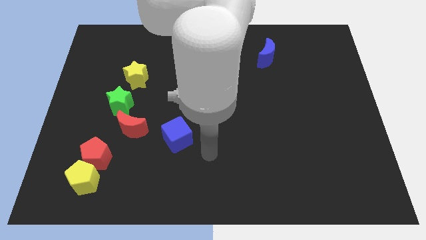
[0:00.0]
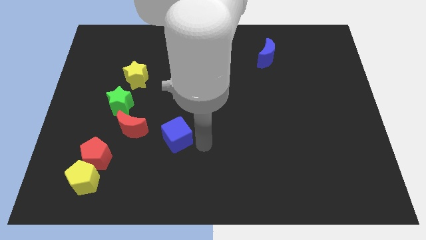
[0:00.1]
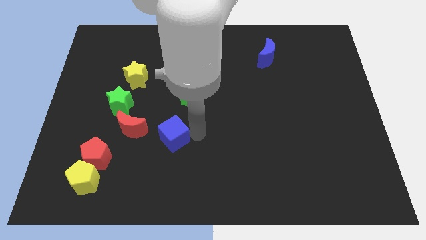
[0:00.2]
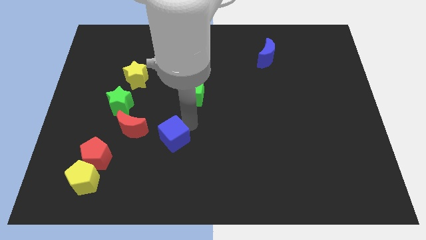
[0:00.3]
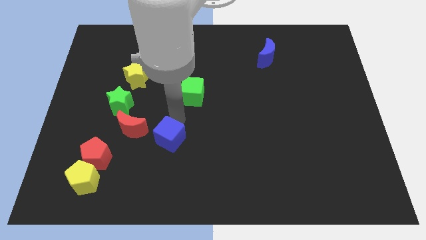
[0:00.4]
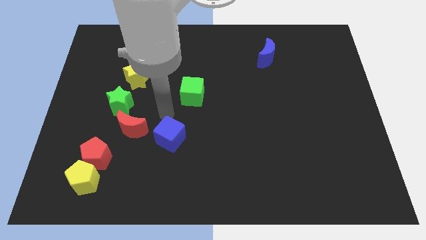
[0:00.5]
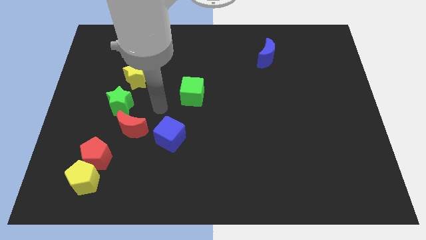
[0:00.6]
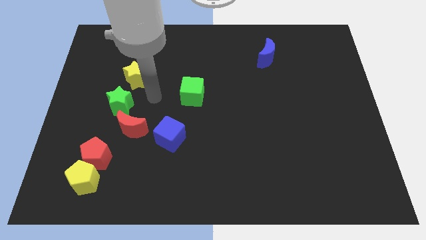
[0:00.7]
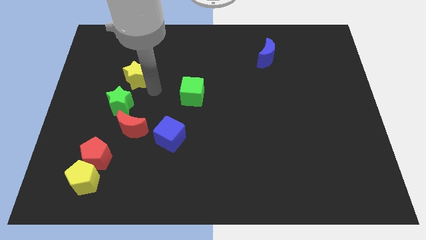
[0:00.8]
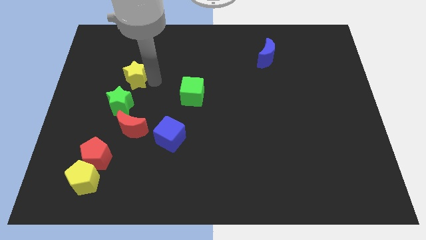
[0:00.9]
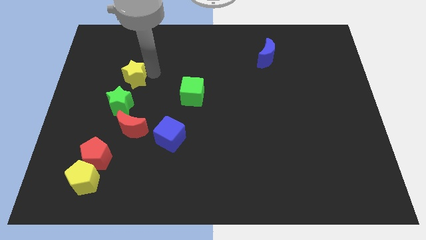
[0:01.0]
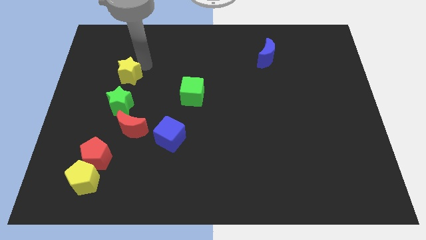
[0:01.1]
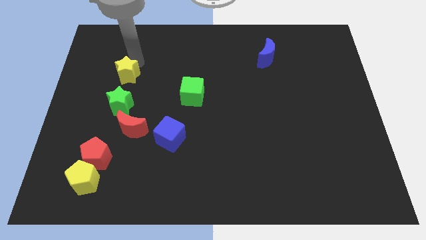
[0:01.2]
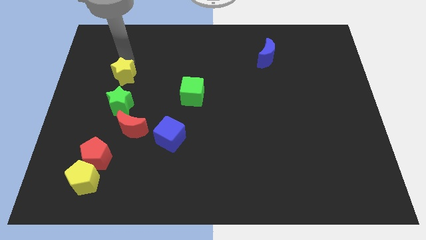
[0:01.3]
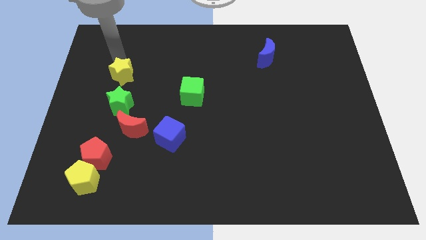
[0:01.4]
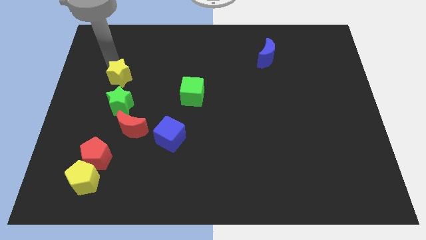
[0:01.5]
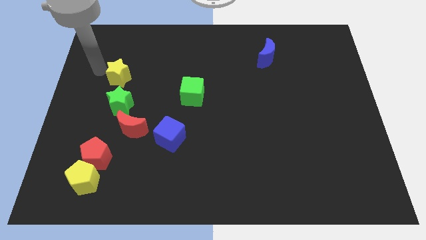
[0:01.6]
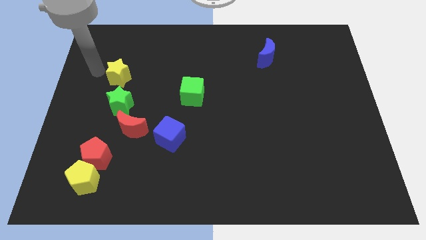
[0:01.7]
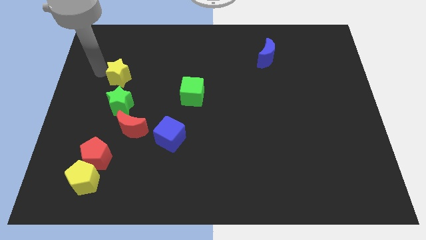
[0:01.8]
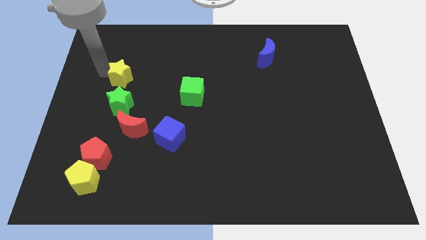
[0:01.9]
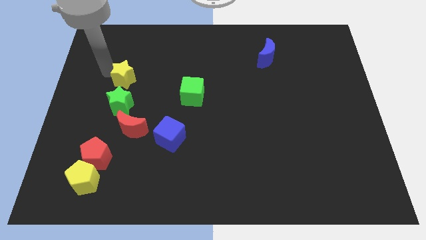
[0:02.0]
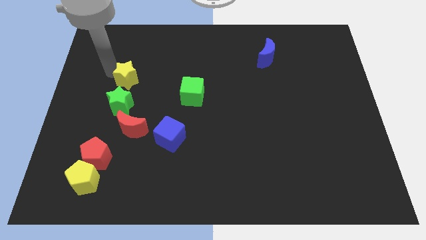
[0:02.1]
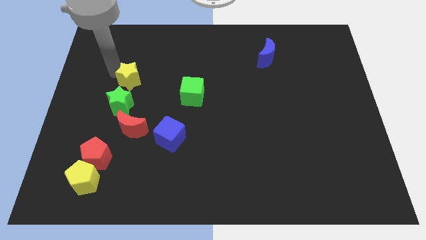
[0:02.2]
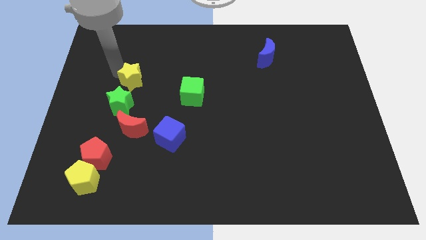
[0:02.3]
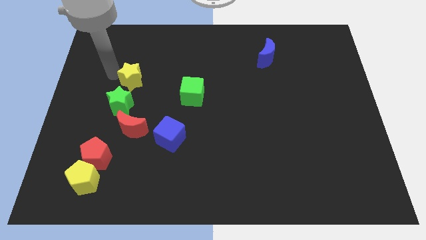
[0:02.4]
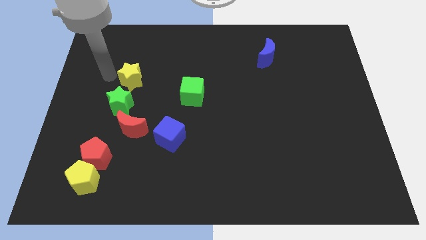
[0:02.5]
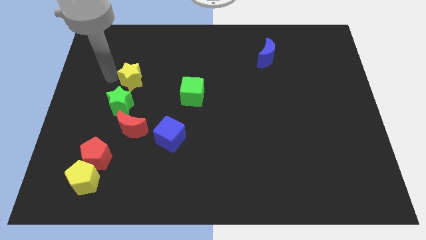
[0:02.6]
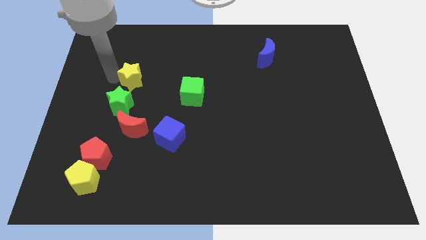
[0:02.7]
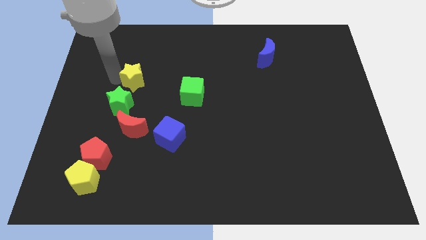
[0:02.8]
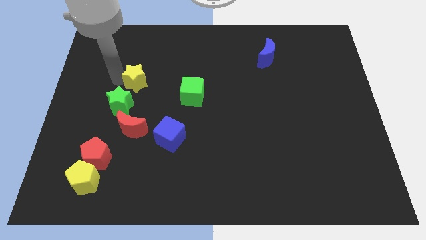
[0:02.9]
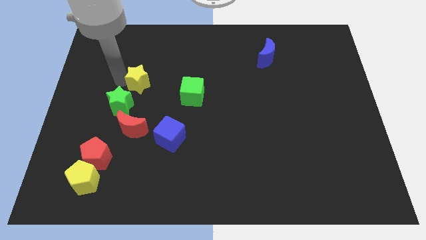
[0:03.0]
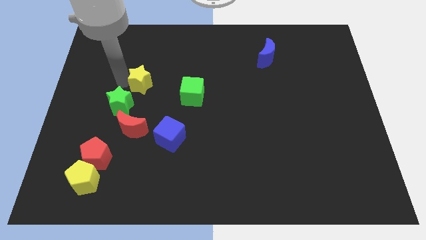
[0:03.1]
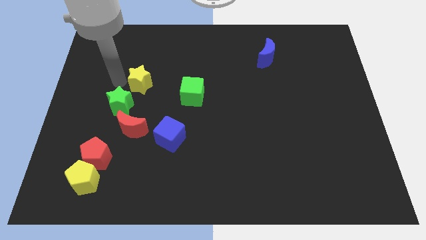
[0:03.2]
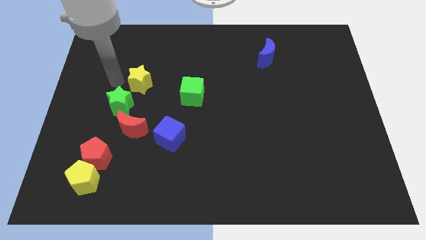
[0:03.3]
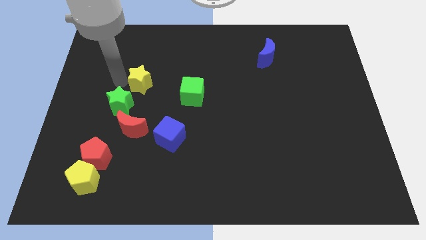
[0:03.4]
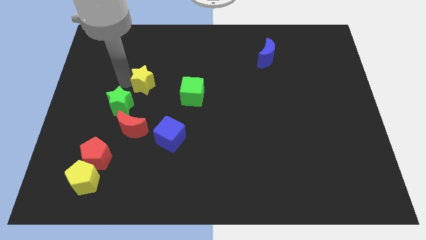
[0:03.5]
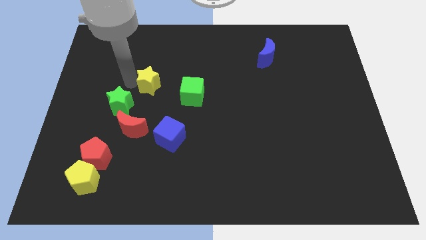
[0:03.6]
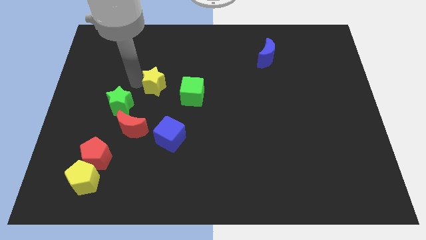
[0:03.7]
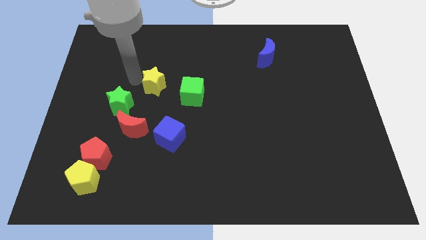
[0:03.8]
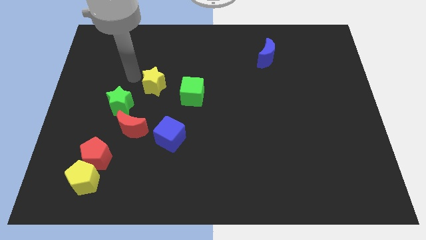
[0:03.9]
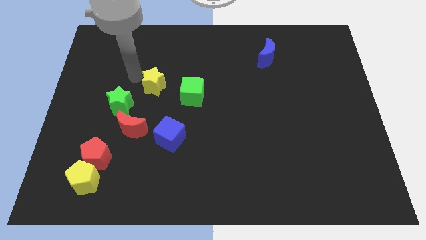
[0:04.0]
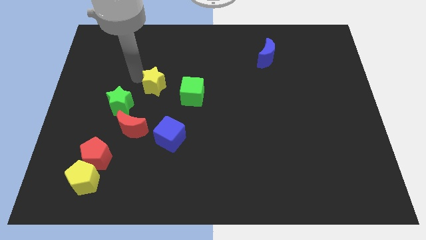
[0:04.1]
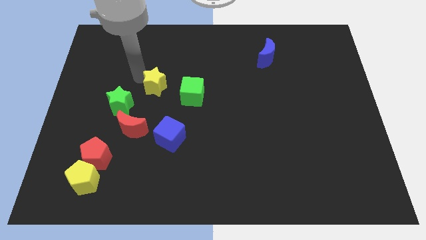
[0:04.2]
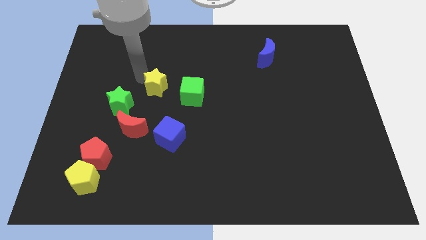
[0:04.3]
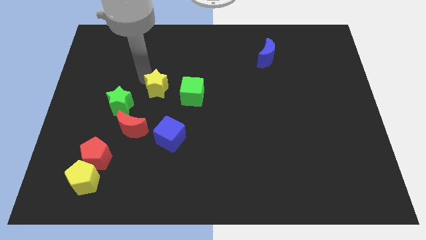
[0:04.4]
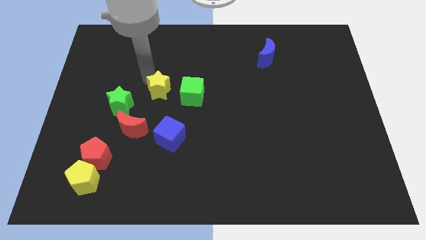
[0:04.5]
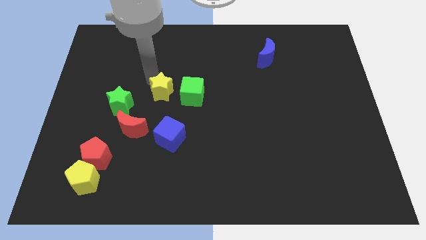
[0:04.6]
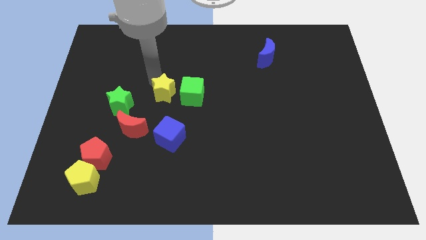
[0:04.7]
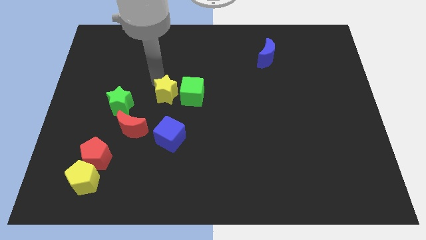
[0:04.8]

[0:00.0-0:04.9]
push the yellow star next to the green cube

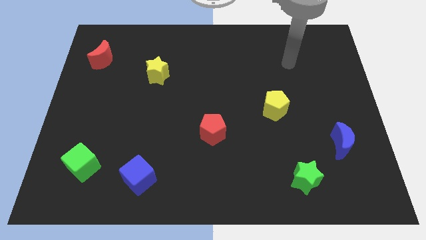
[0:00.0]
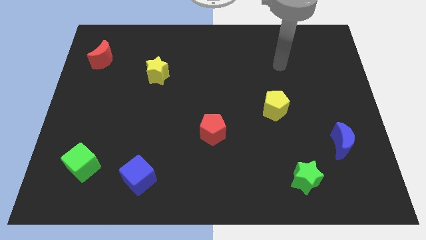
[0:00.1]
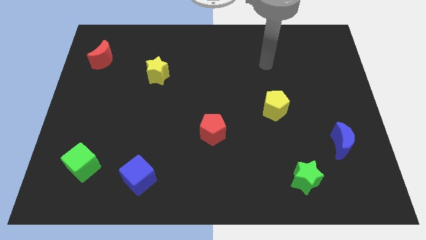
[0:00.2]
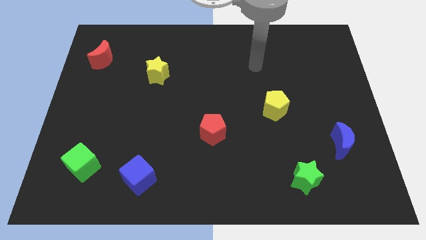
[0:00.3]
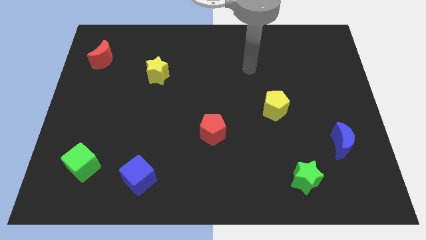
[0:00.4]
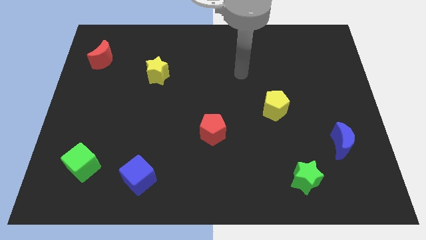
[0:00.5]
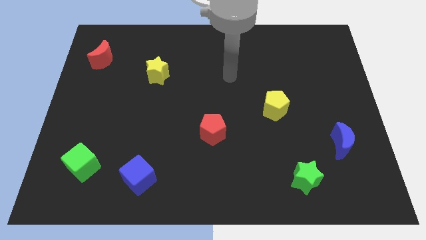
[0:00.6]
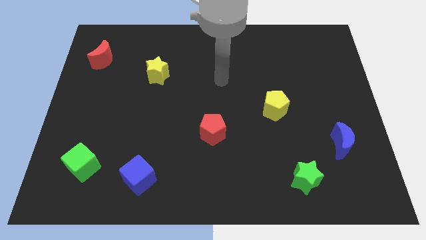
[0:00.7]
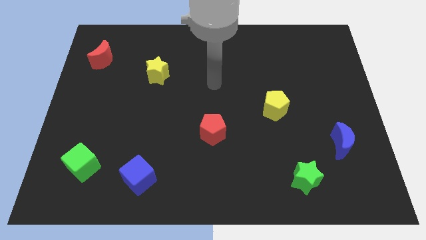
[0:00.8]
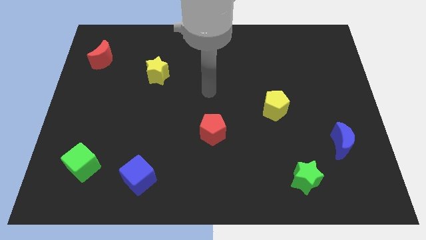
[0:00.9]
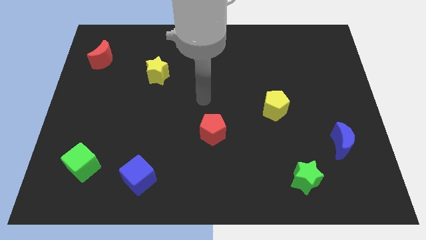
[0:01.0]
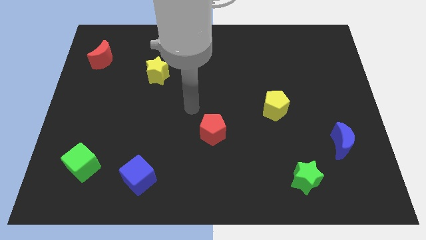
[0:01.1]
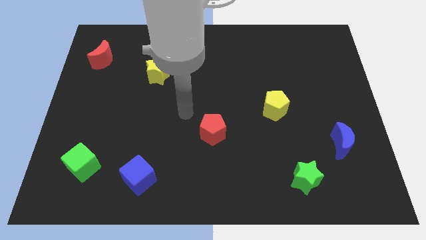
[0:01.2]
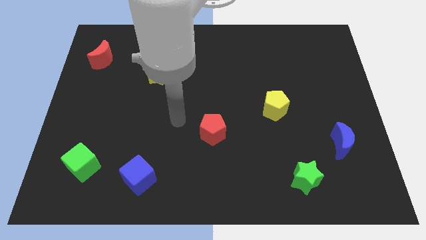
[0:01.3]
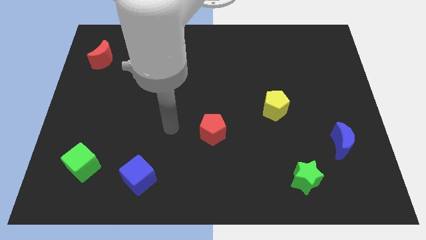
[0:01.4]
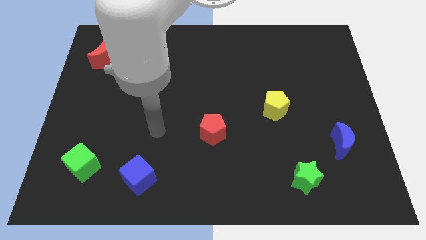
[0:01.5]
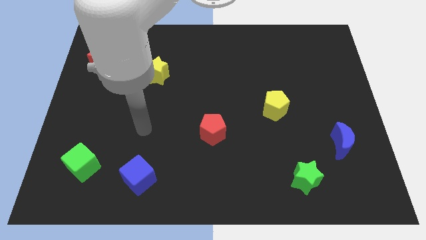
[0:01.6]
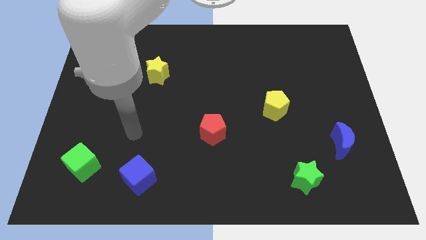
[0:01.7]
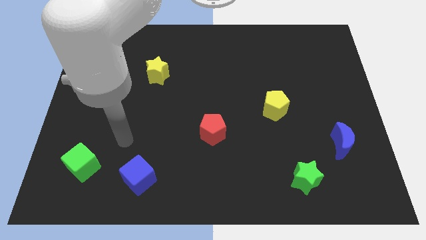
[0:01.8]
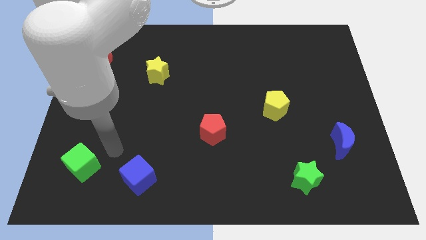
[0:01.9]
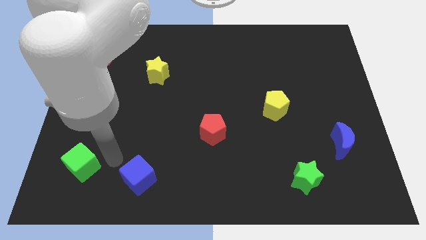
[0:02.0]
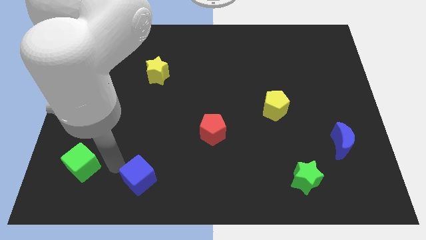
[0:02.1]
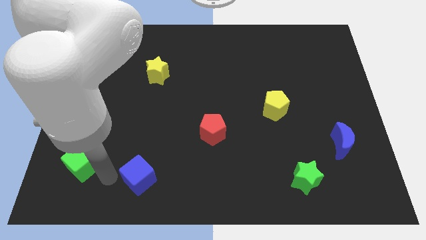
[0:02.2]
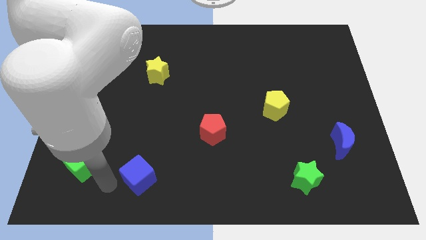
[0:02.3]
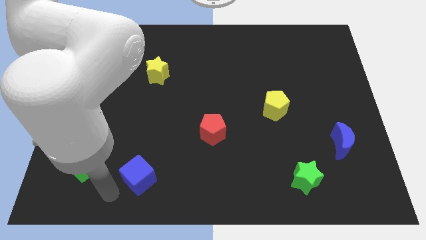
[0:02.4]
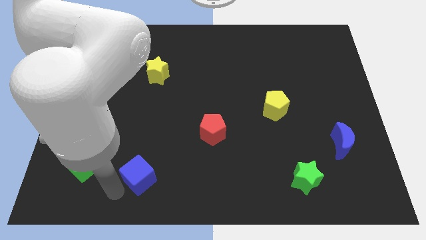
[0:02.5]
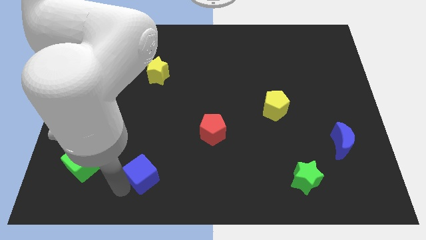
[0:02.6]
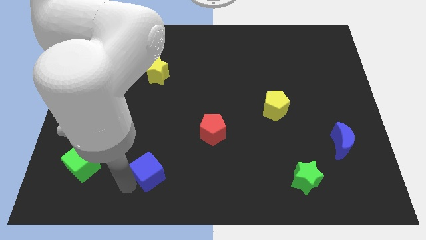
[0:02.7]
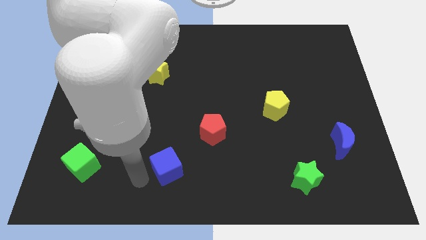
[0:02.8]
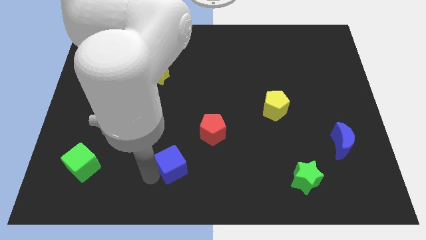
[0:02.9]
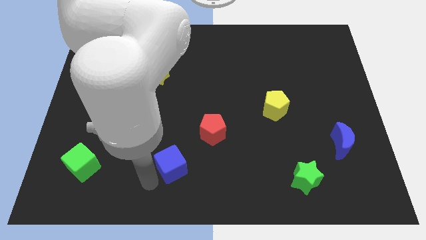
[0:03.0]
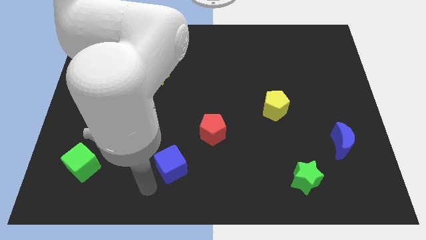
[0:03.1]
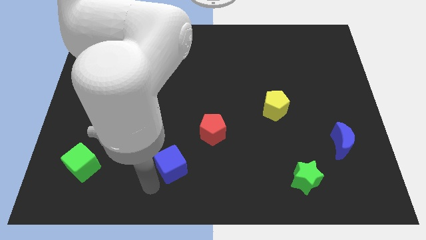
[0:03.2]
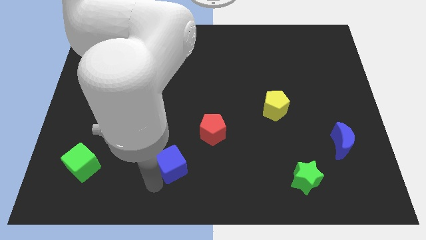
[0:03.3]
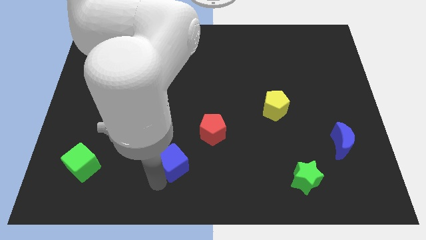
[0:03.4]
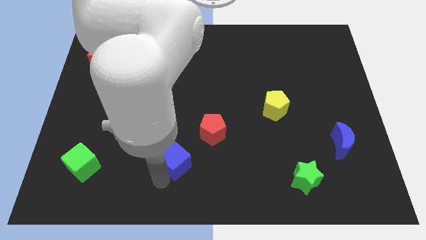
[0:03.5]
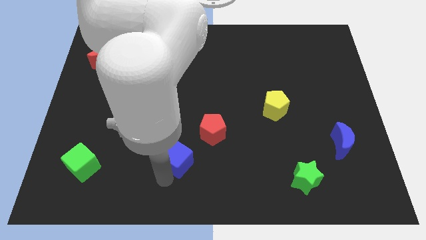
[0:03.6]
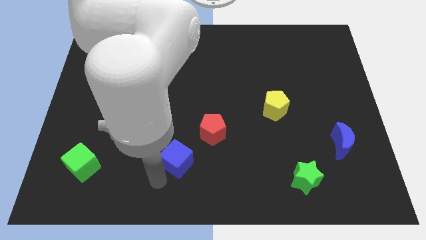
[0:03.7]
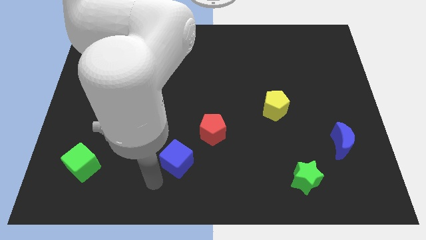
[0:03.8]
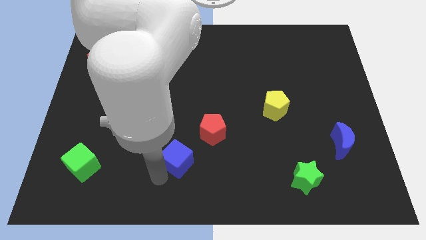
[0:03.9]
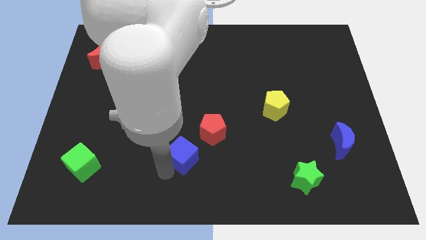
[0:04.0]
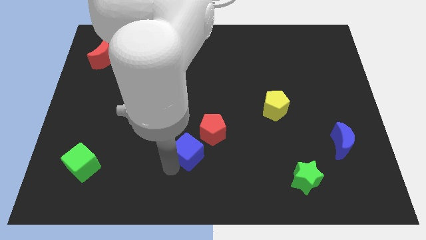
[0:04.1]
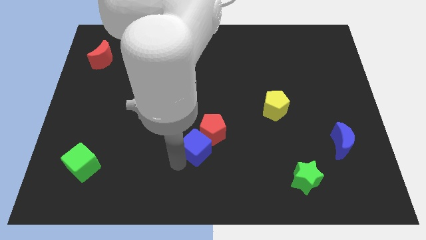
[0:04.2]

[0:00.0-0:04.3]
slide the blue cube towards the red pentagon
